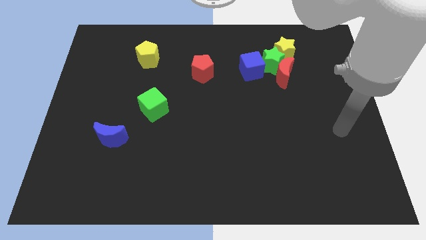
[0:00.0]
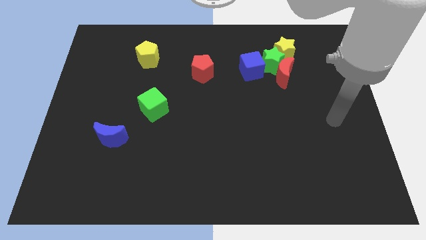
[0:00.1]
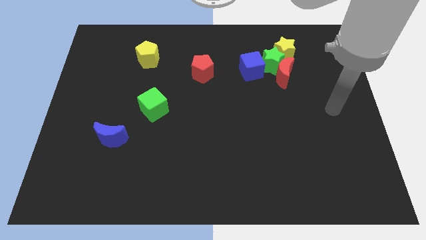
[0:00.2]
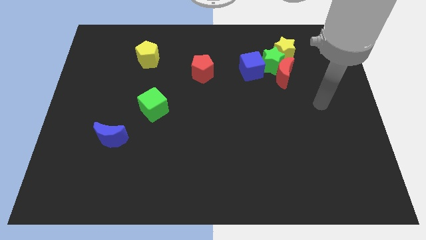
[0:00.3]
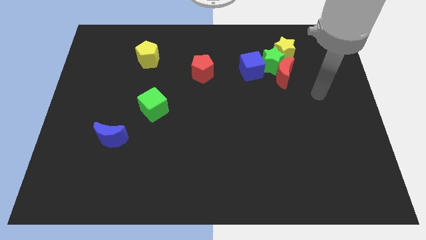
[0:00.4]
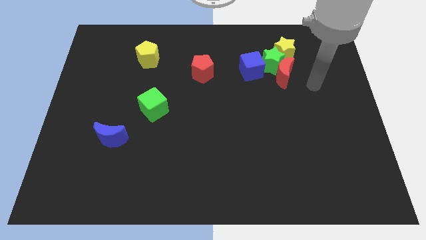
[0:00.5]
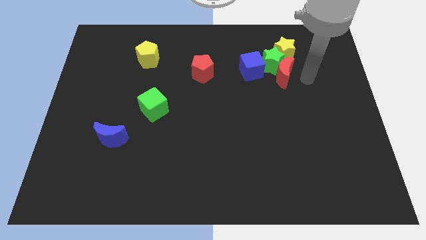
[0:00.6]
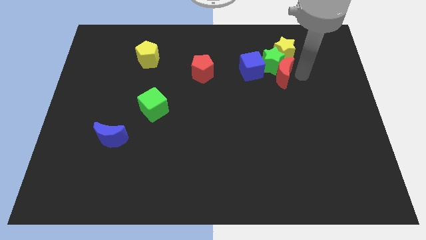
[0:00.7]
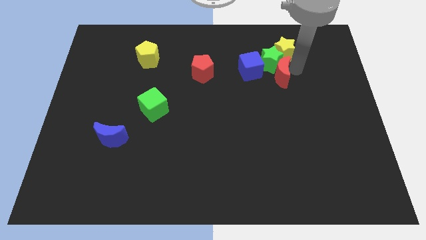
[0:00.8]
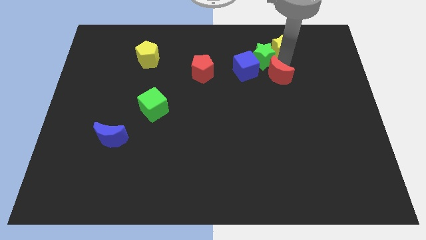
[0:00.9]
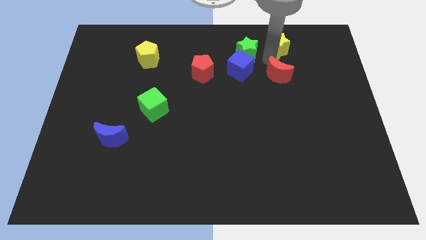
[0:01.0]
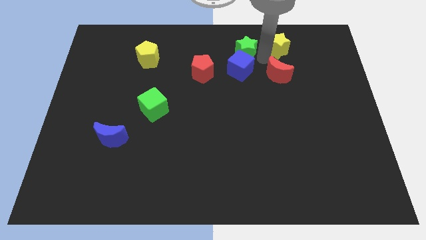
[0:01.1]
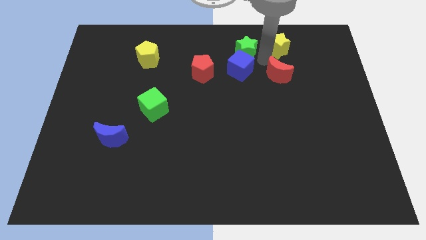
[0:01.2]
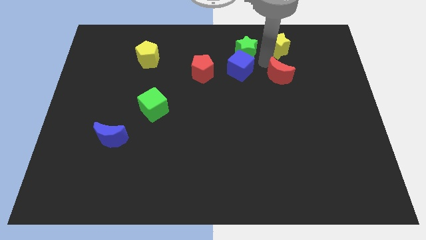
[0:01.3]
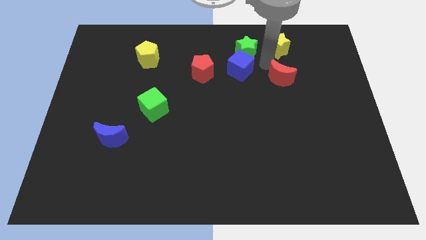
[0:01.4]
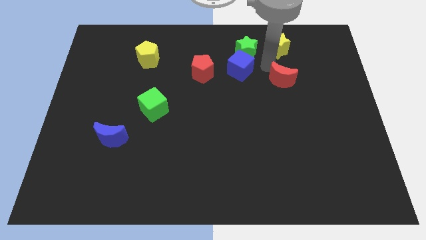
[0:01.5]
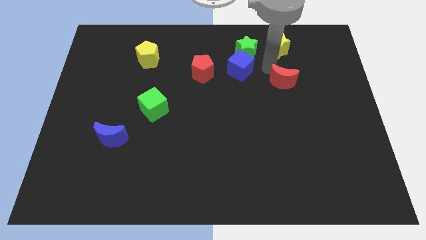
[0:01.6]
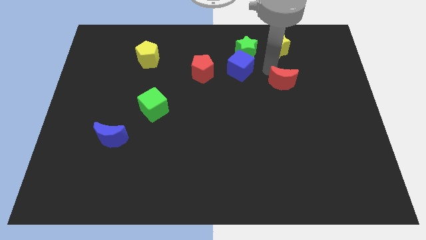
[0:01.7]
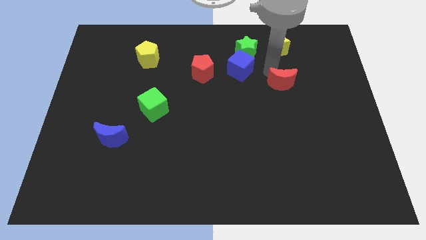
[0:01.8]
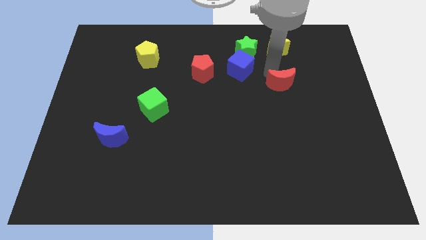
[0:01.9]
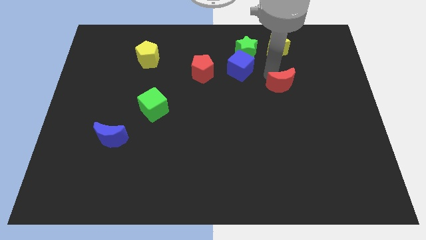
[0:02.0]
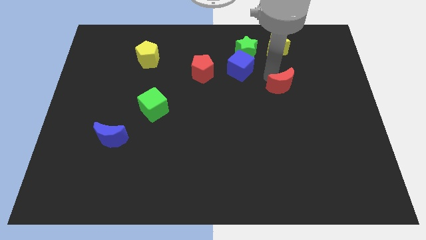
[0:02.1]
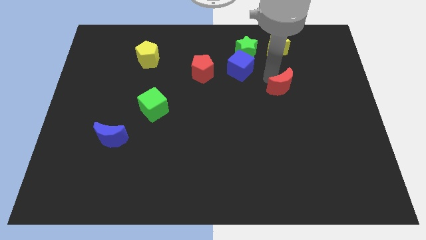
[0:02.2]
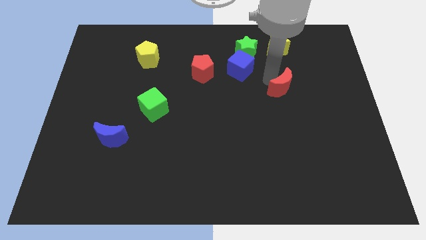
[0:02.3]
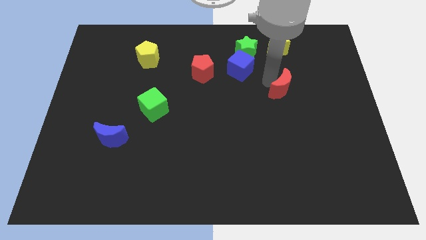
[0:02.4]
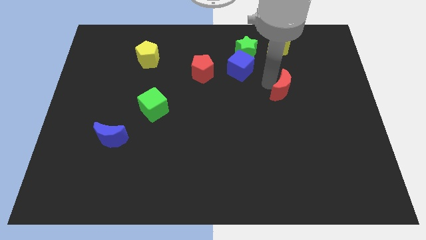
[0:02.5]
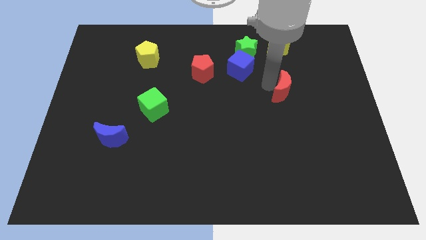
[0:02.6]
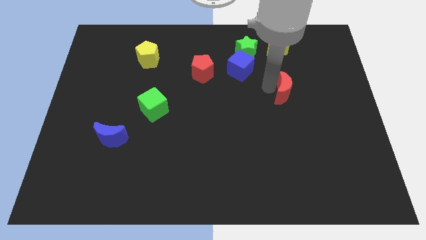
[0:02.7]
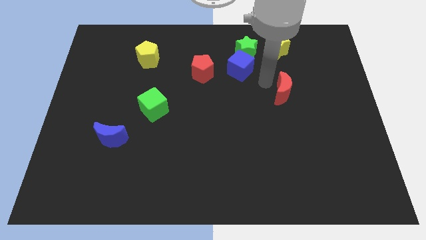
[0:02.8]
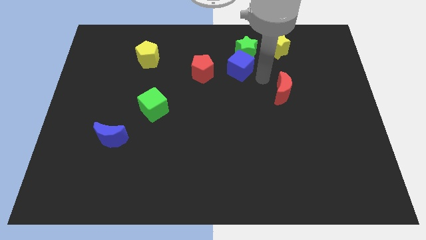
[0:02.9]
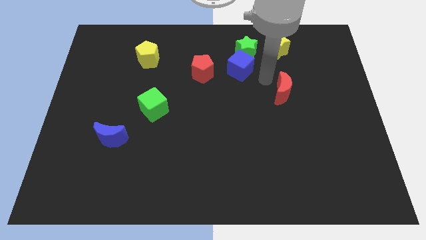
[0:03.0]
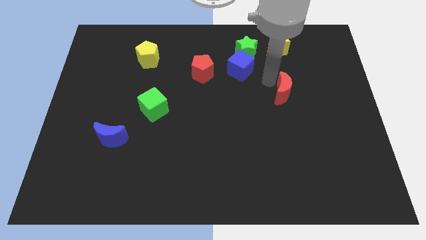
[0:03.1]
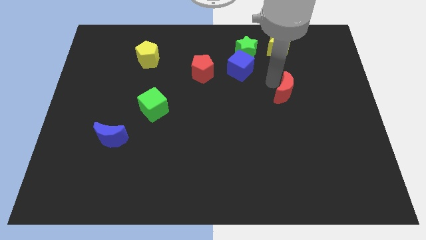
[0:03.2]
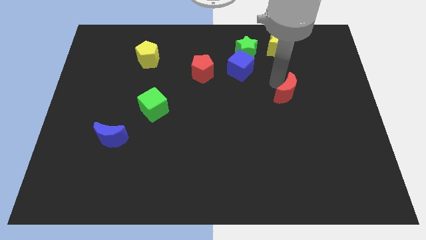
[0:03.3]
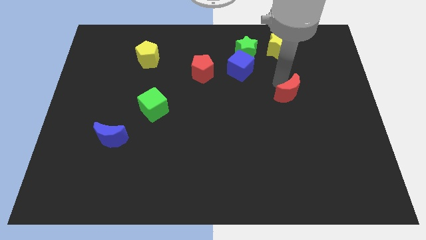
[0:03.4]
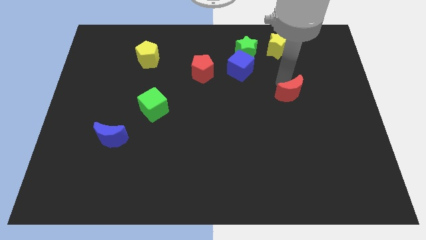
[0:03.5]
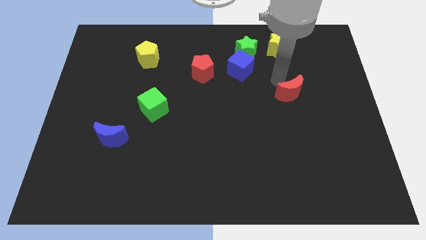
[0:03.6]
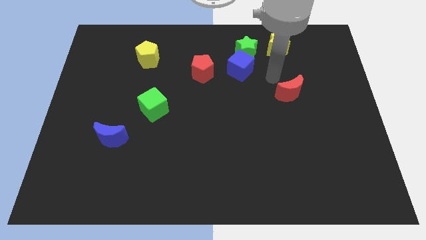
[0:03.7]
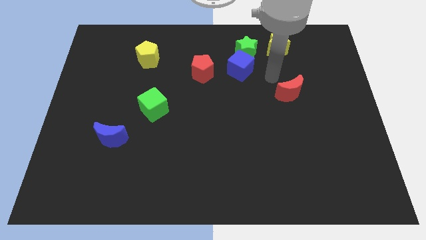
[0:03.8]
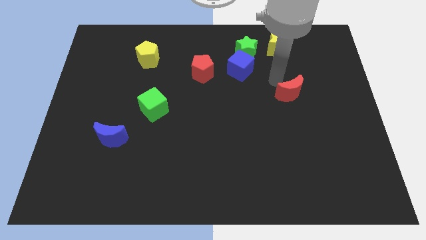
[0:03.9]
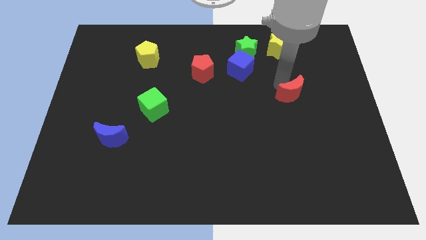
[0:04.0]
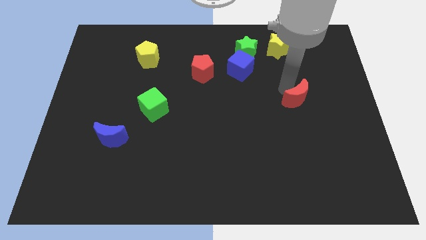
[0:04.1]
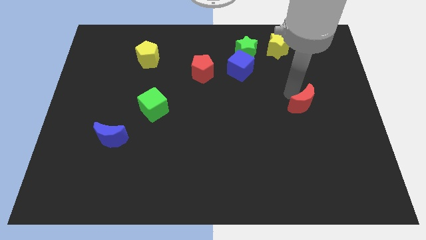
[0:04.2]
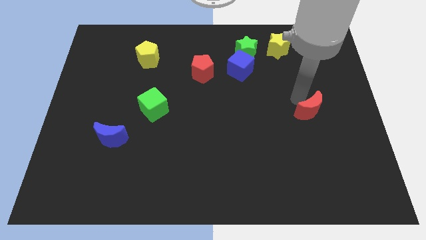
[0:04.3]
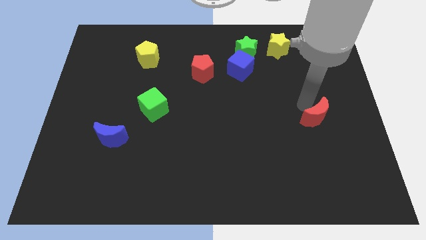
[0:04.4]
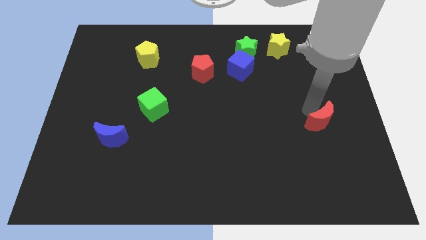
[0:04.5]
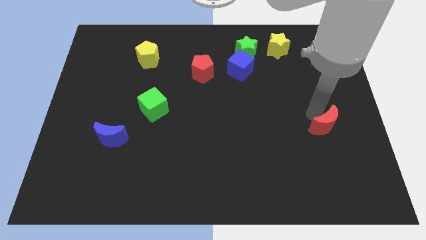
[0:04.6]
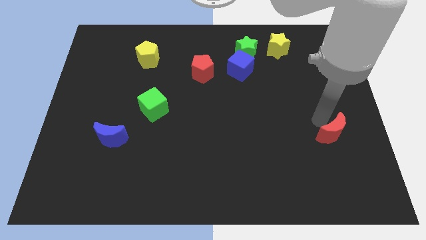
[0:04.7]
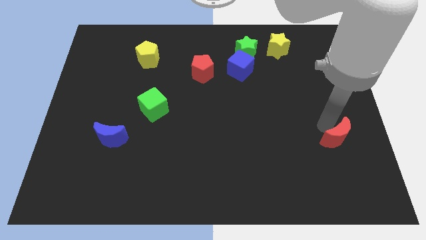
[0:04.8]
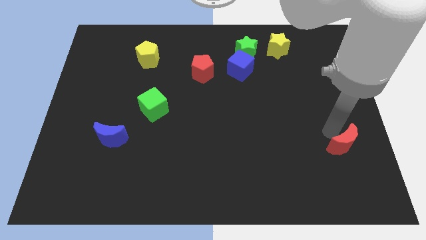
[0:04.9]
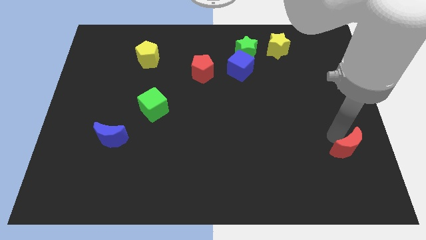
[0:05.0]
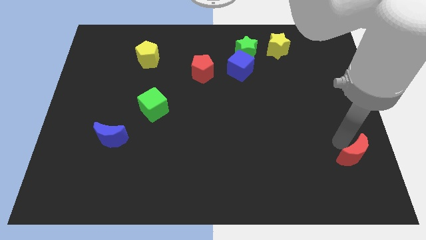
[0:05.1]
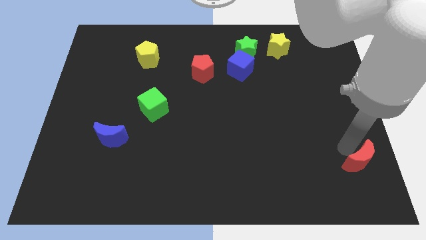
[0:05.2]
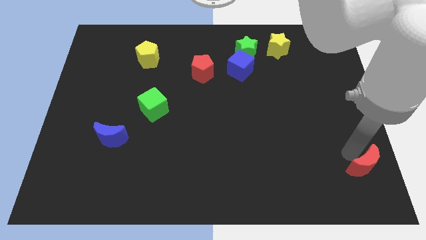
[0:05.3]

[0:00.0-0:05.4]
slide the red moon to the lower right corner

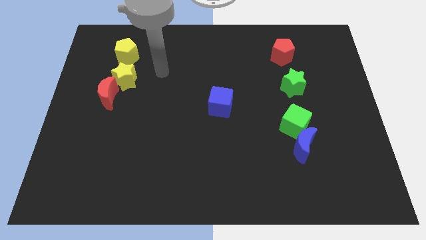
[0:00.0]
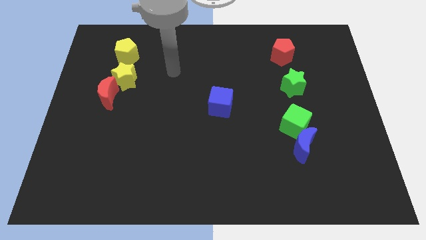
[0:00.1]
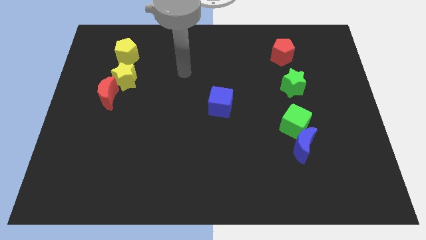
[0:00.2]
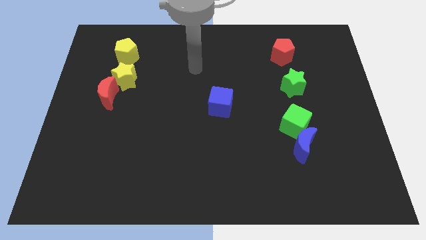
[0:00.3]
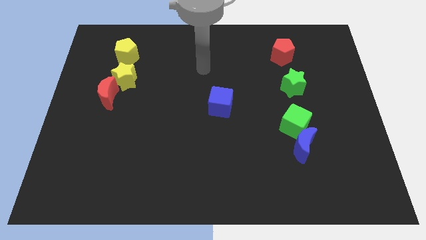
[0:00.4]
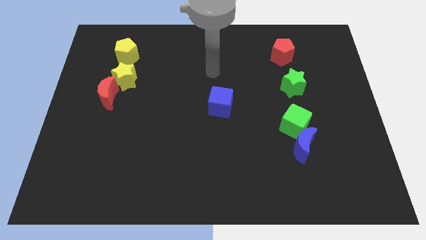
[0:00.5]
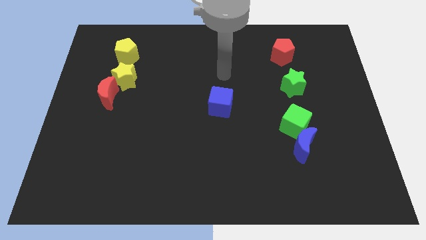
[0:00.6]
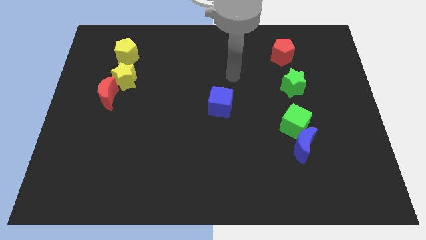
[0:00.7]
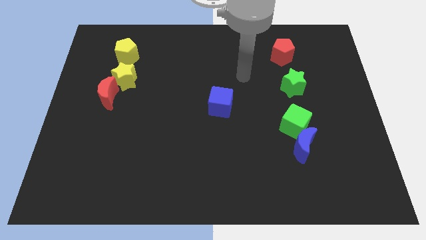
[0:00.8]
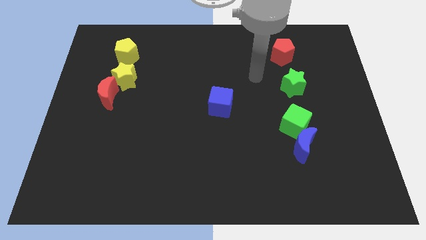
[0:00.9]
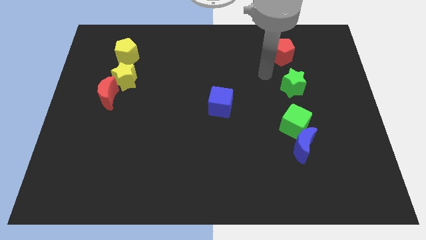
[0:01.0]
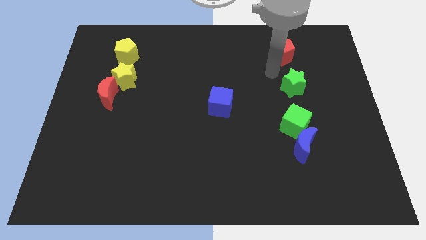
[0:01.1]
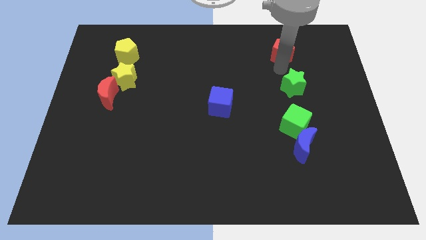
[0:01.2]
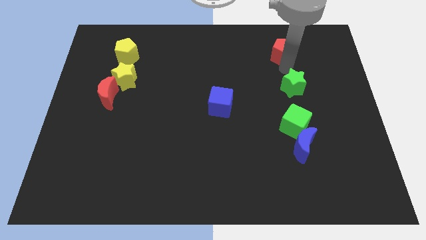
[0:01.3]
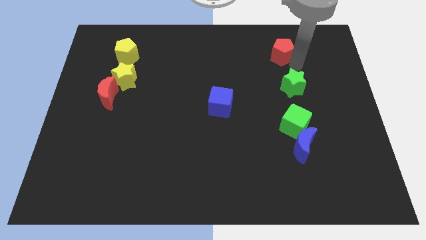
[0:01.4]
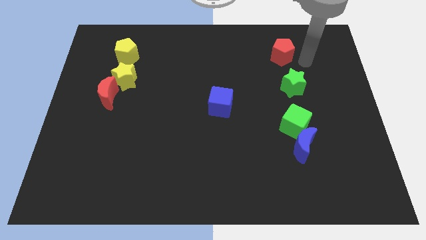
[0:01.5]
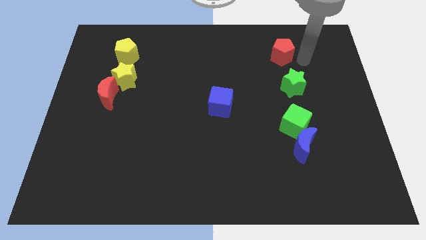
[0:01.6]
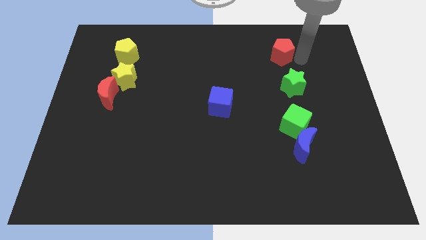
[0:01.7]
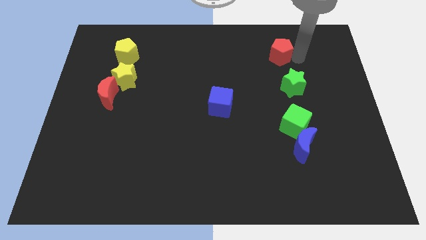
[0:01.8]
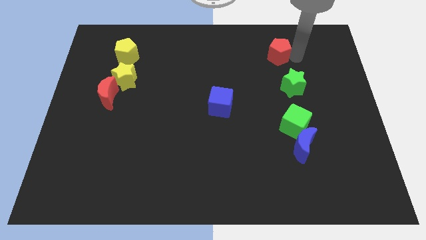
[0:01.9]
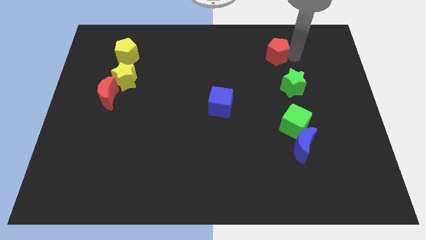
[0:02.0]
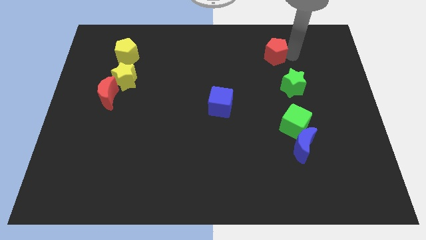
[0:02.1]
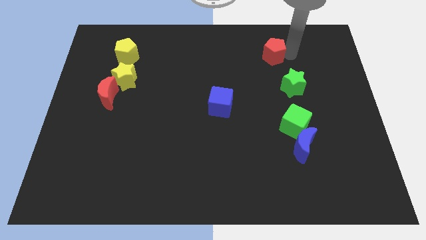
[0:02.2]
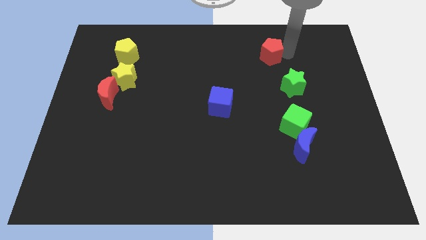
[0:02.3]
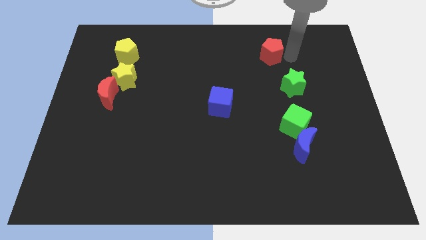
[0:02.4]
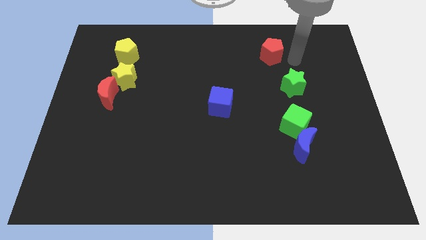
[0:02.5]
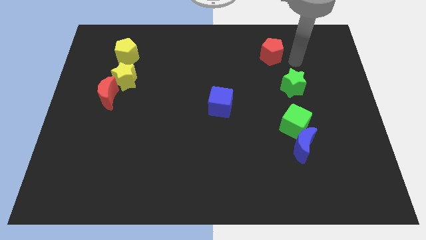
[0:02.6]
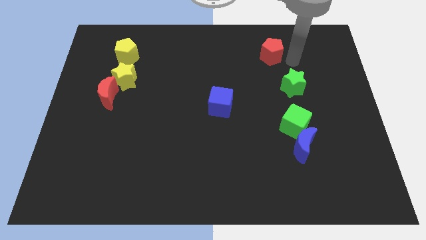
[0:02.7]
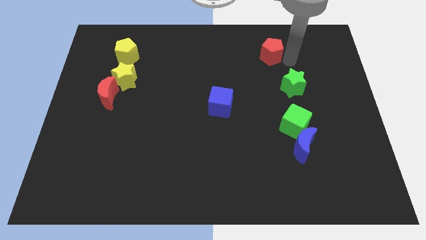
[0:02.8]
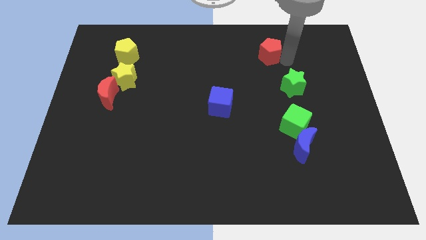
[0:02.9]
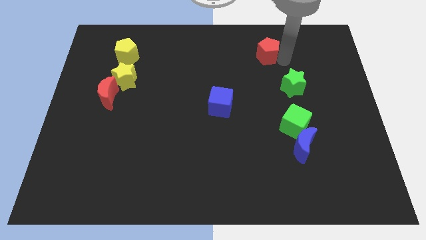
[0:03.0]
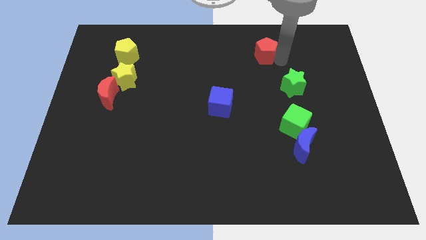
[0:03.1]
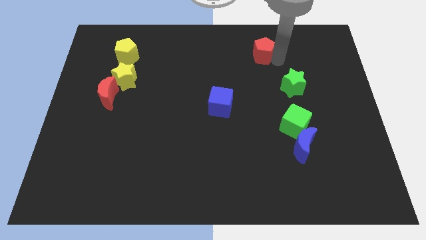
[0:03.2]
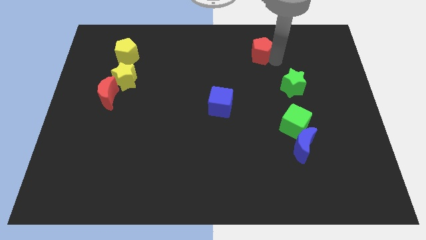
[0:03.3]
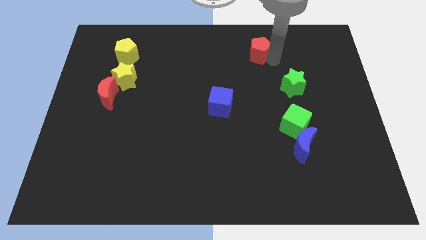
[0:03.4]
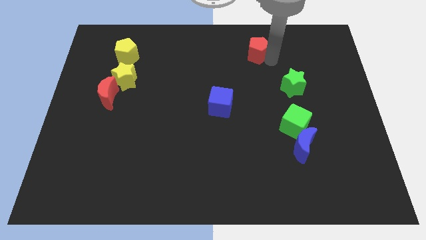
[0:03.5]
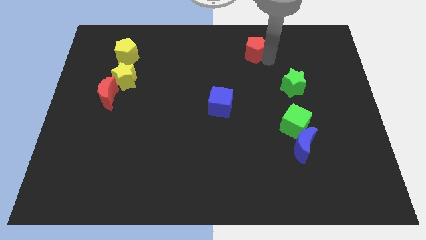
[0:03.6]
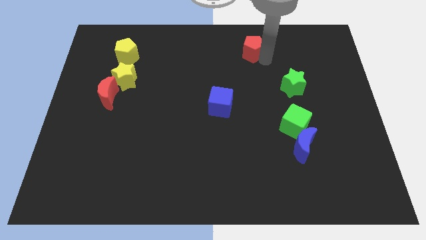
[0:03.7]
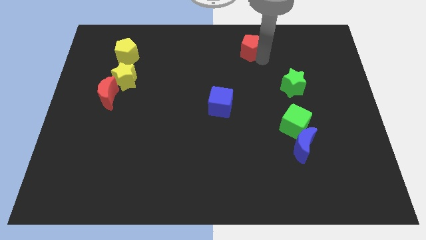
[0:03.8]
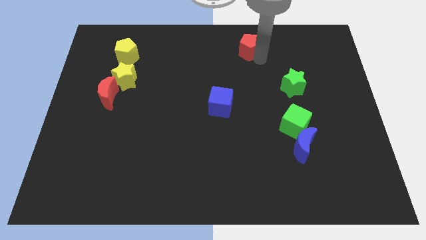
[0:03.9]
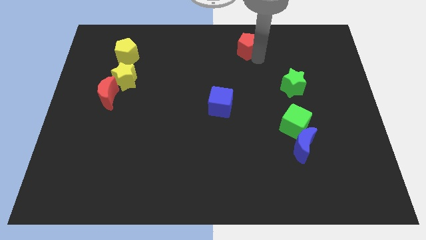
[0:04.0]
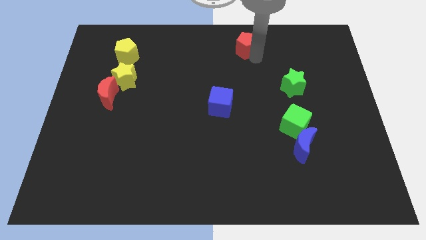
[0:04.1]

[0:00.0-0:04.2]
move the red pentagon to the towards your base
